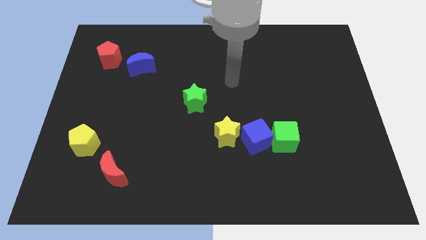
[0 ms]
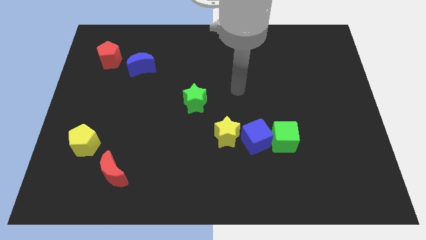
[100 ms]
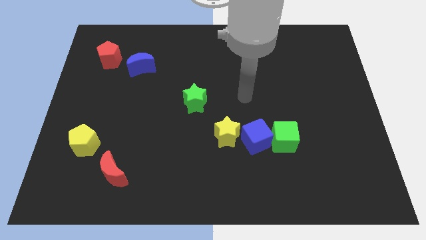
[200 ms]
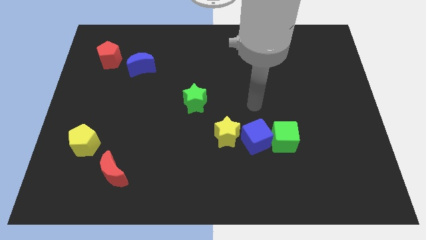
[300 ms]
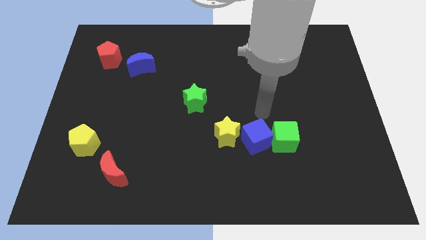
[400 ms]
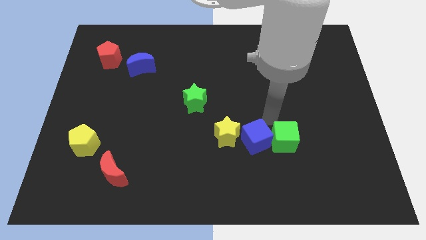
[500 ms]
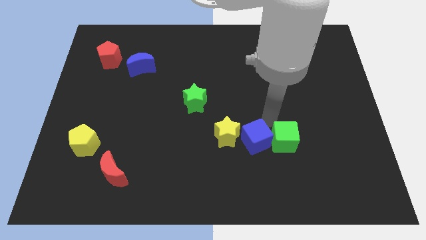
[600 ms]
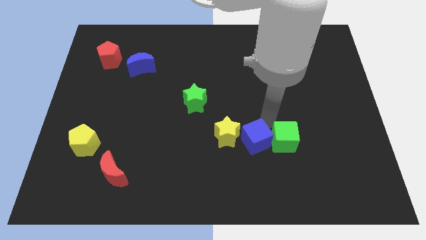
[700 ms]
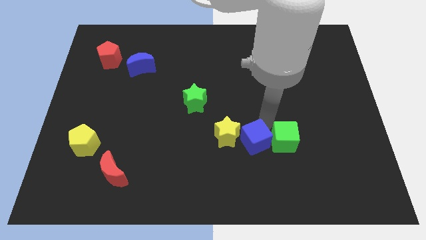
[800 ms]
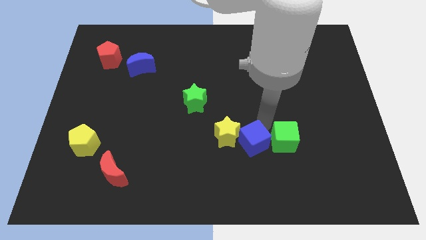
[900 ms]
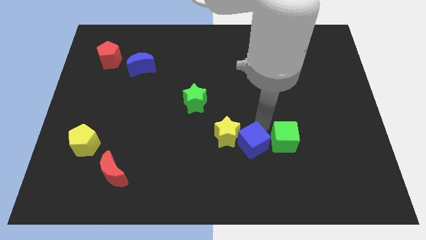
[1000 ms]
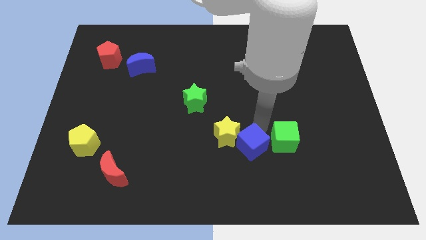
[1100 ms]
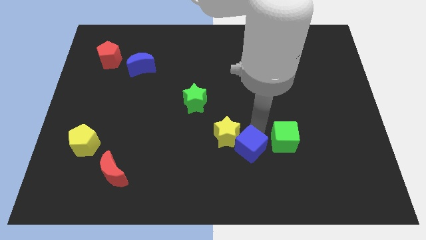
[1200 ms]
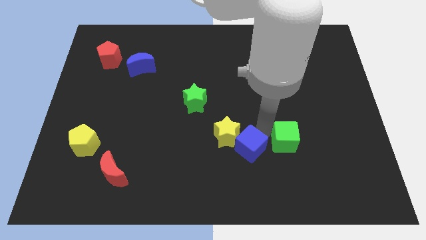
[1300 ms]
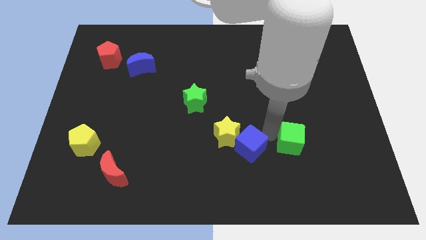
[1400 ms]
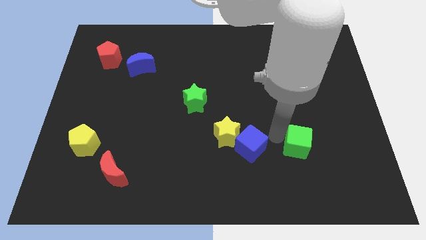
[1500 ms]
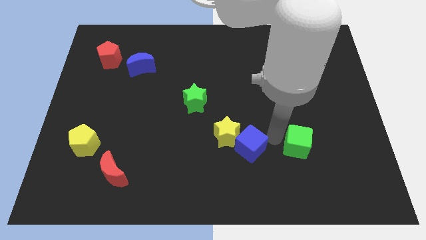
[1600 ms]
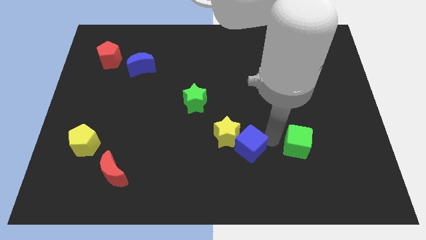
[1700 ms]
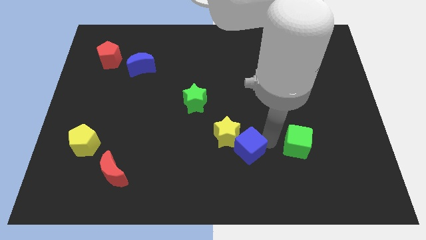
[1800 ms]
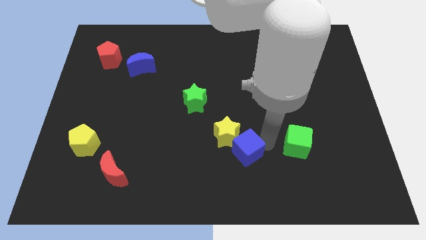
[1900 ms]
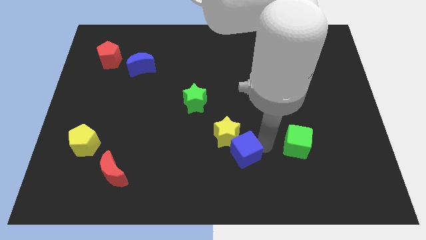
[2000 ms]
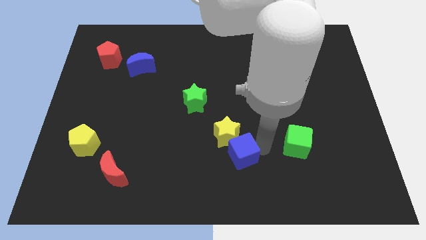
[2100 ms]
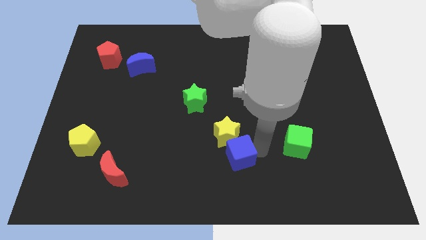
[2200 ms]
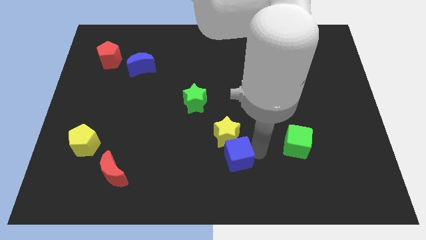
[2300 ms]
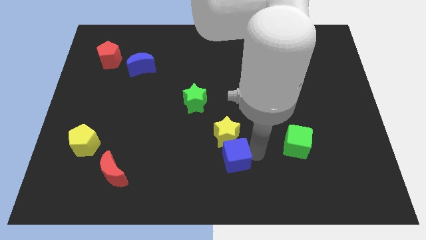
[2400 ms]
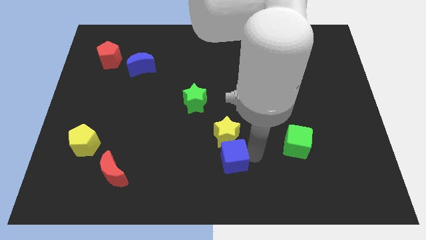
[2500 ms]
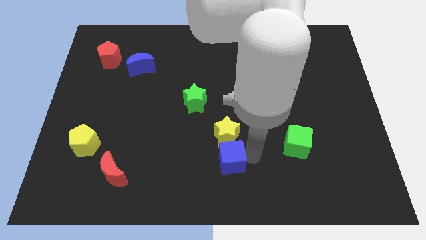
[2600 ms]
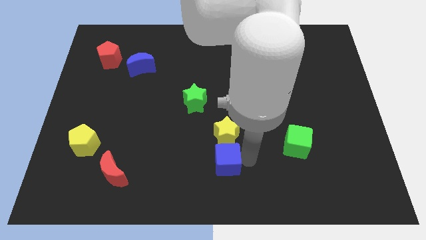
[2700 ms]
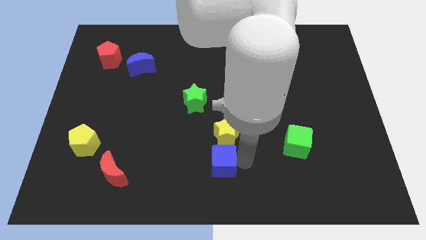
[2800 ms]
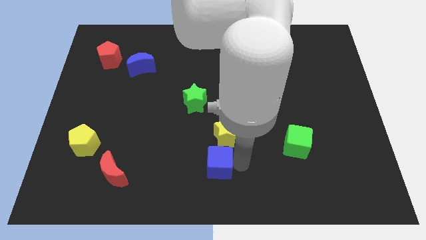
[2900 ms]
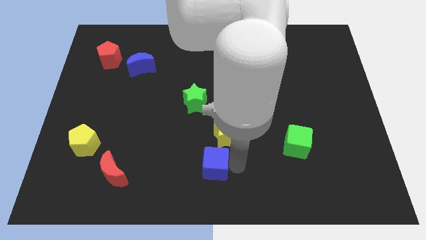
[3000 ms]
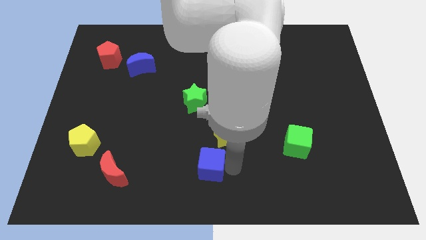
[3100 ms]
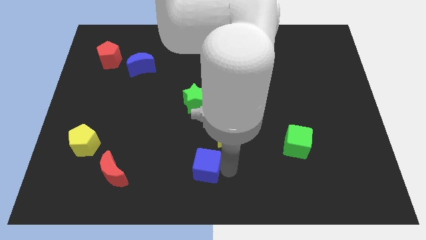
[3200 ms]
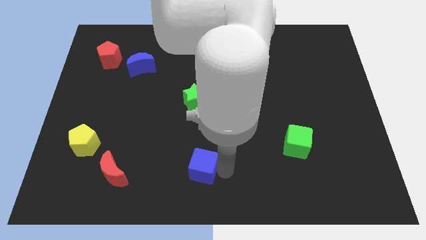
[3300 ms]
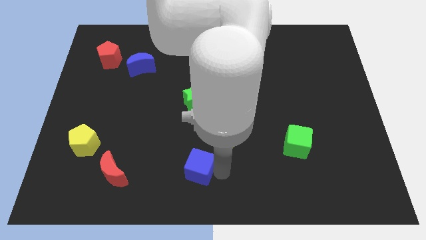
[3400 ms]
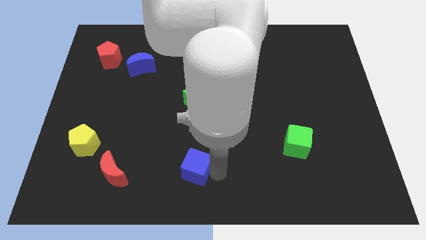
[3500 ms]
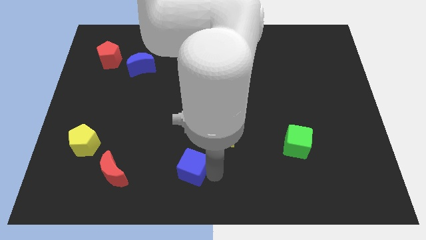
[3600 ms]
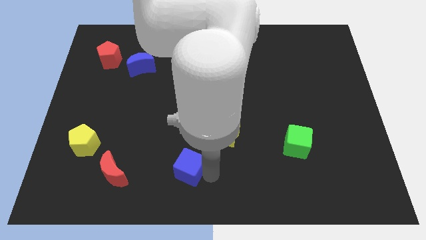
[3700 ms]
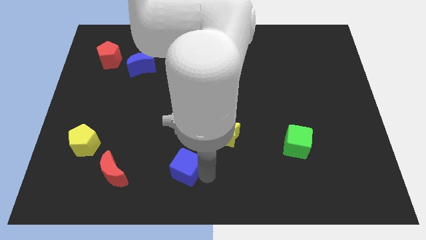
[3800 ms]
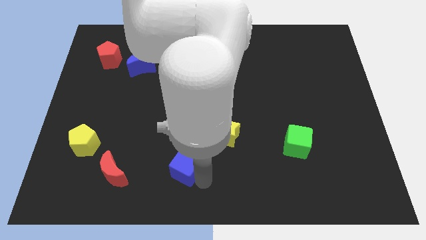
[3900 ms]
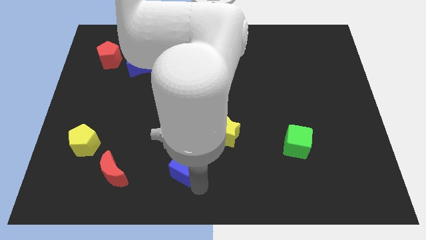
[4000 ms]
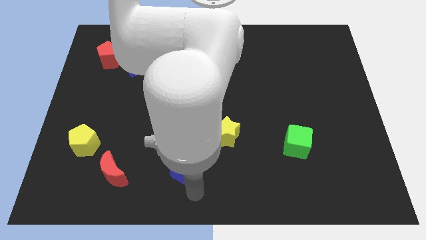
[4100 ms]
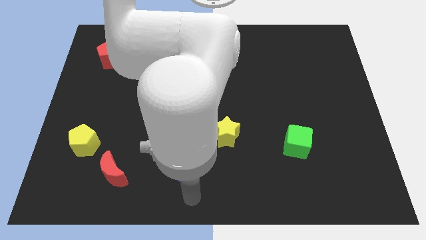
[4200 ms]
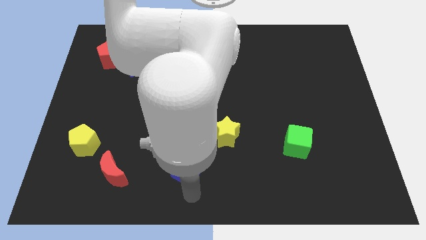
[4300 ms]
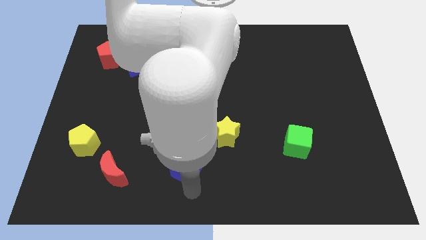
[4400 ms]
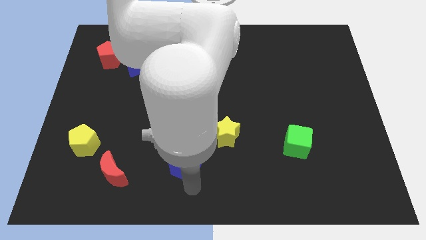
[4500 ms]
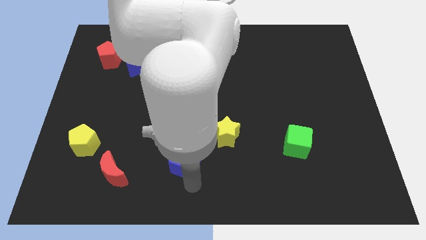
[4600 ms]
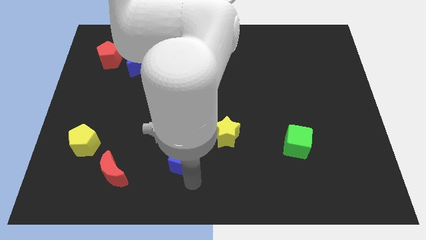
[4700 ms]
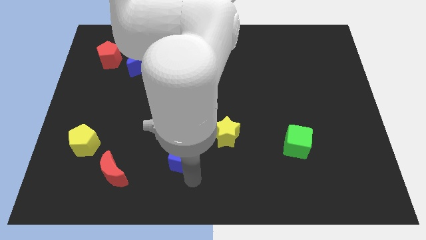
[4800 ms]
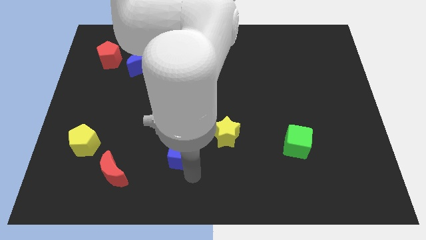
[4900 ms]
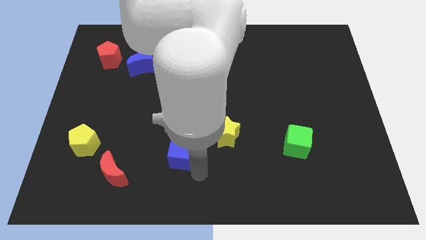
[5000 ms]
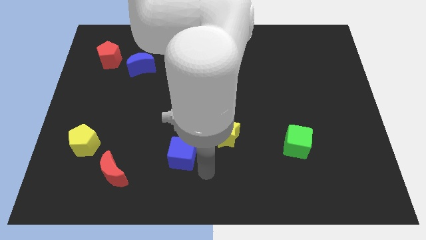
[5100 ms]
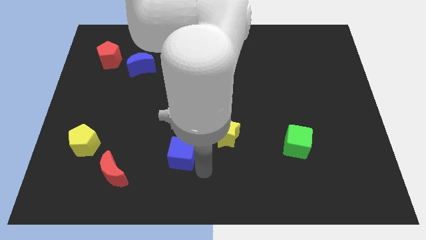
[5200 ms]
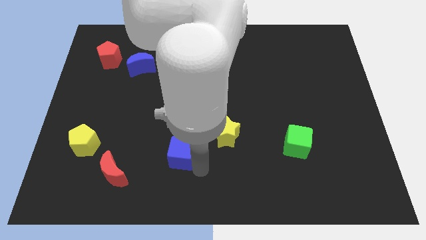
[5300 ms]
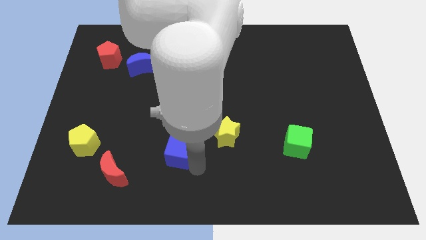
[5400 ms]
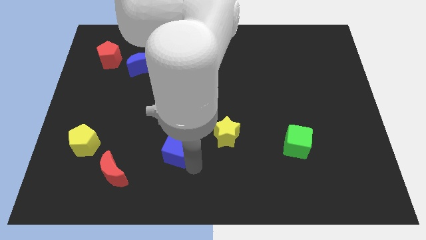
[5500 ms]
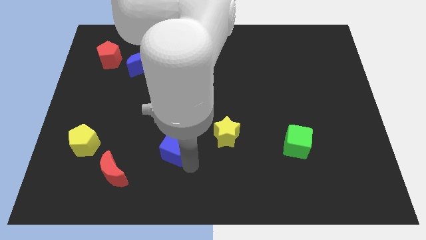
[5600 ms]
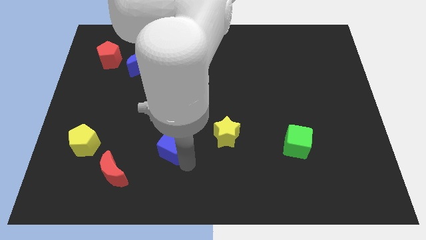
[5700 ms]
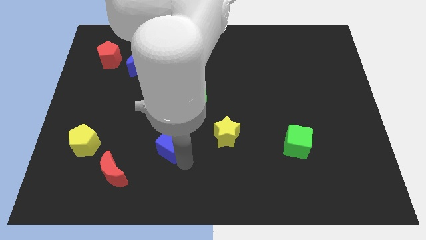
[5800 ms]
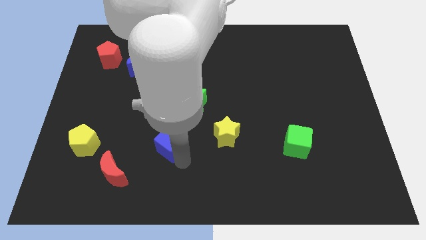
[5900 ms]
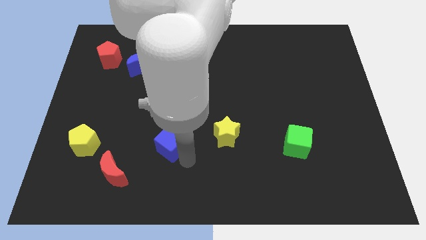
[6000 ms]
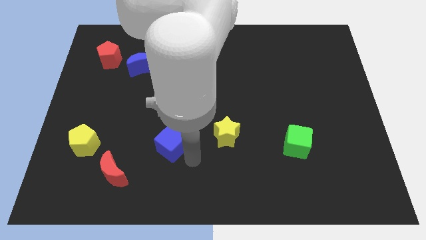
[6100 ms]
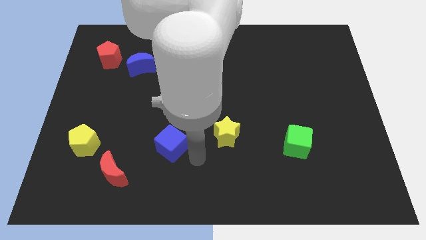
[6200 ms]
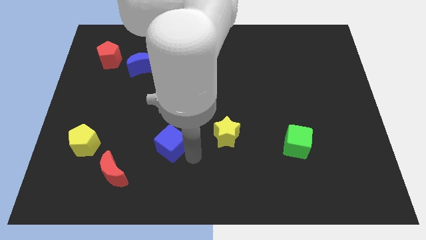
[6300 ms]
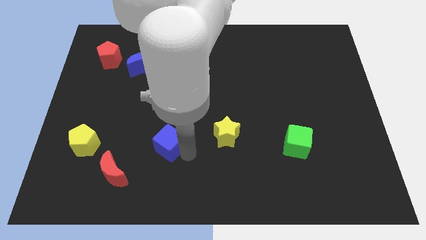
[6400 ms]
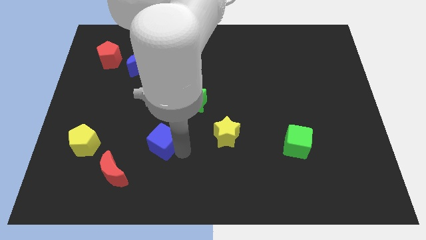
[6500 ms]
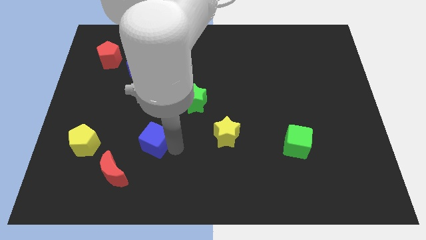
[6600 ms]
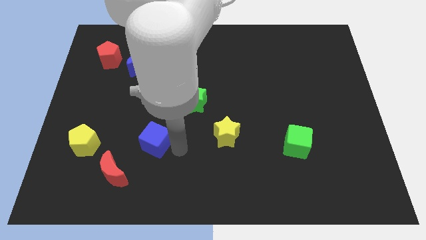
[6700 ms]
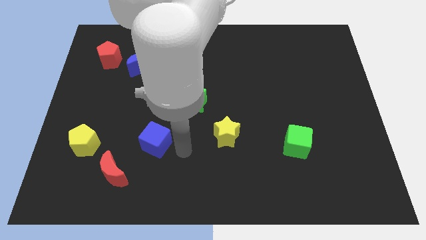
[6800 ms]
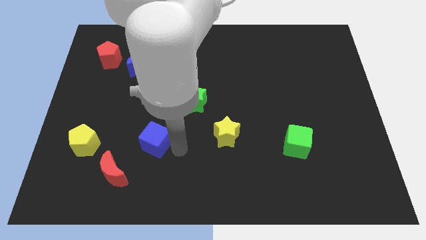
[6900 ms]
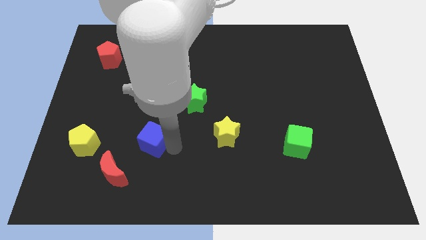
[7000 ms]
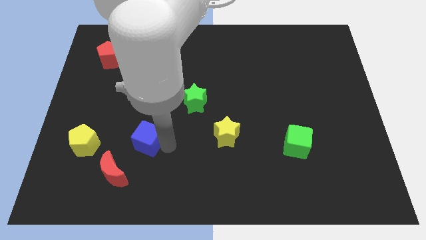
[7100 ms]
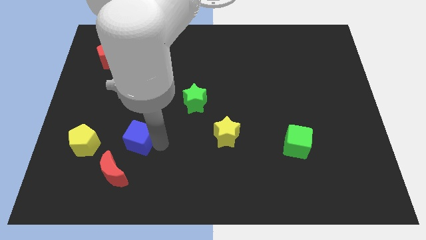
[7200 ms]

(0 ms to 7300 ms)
push the blue cube above the red moon
